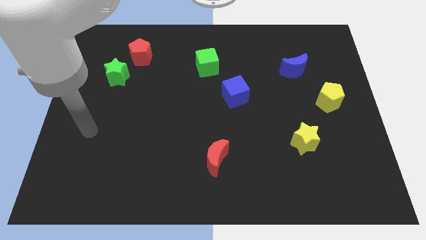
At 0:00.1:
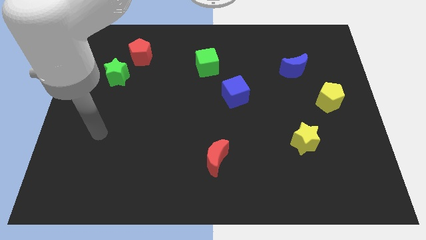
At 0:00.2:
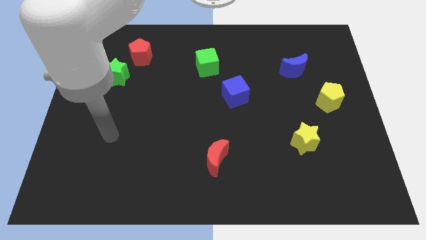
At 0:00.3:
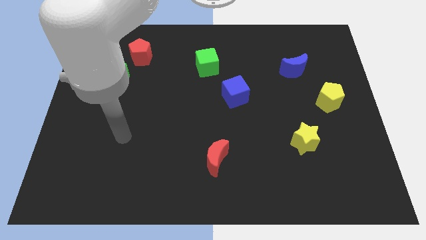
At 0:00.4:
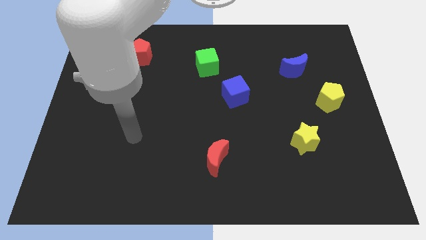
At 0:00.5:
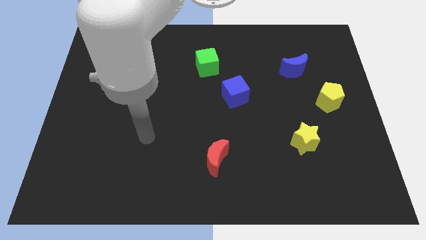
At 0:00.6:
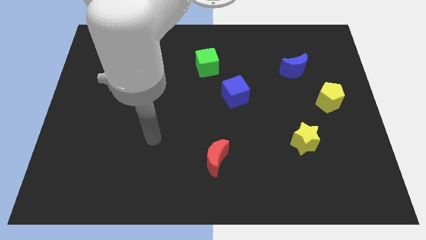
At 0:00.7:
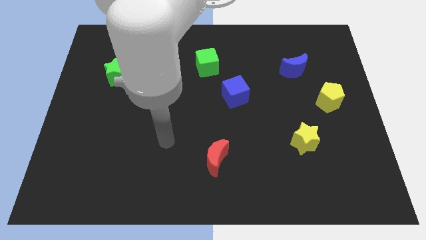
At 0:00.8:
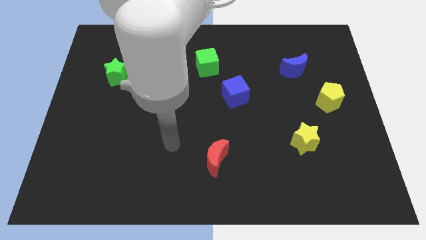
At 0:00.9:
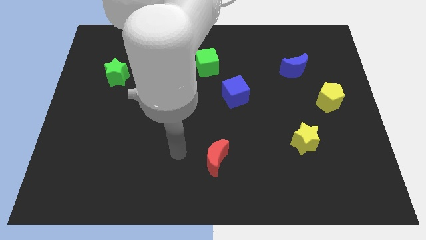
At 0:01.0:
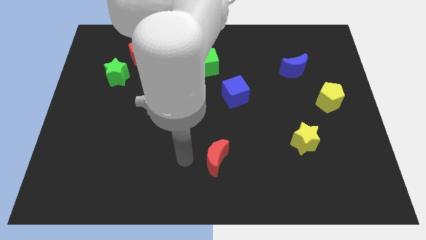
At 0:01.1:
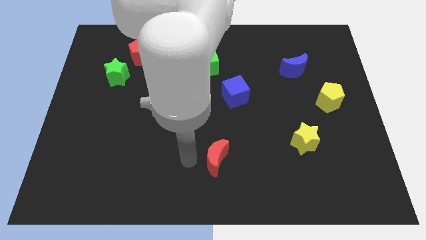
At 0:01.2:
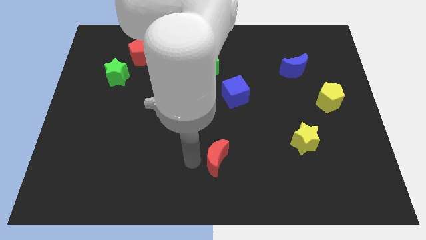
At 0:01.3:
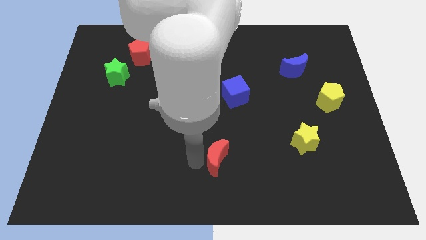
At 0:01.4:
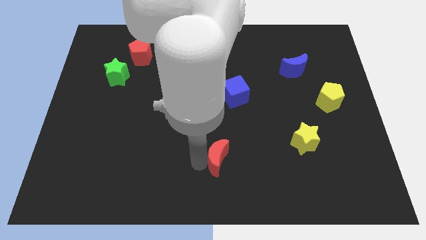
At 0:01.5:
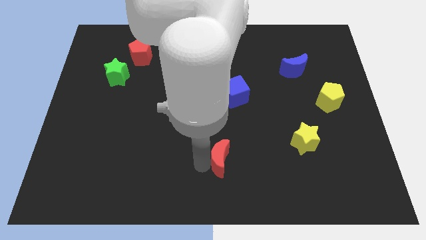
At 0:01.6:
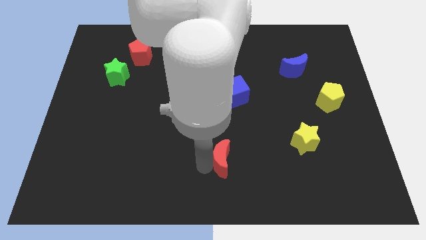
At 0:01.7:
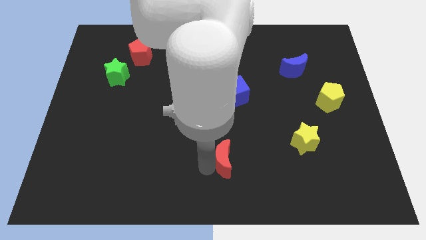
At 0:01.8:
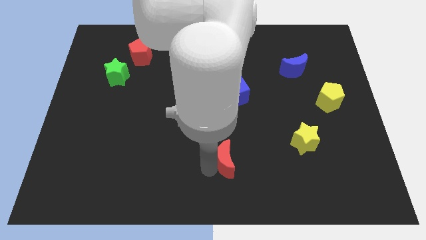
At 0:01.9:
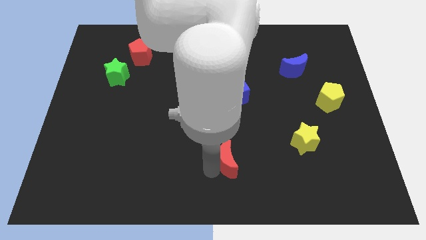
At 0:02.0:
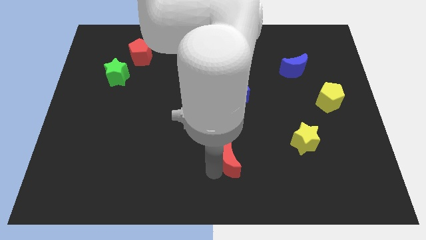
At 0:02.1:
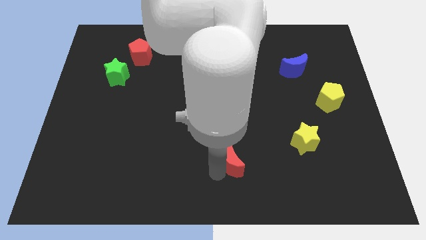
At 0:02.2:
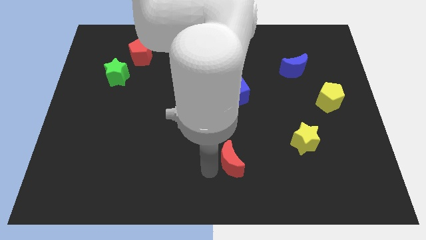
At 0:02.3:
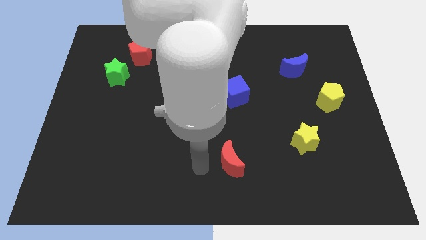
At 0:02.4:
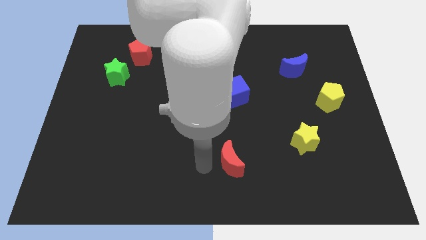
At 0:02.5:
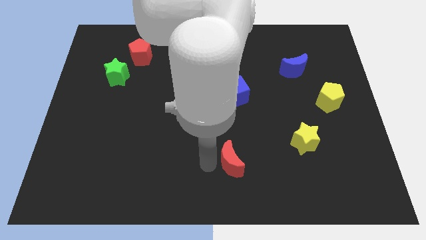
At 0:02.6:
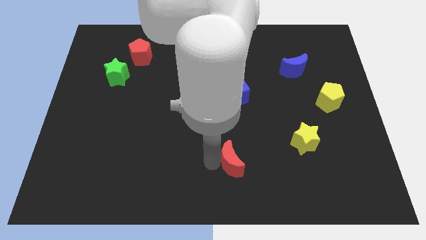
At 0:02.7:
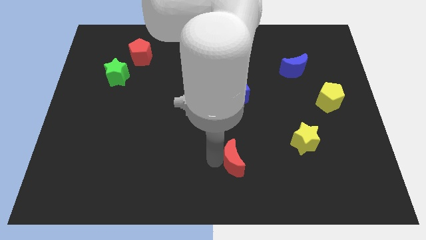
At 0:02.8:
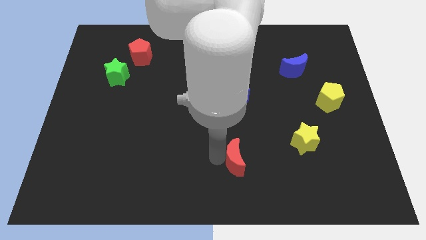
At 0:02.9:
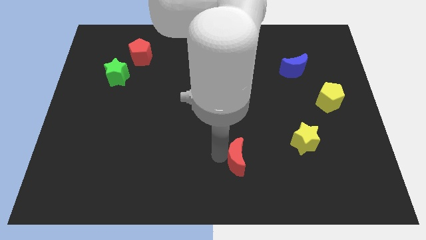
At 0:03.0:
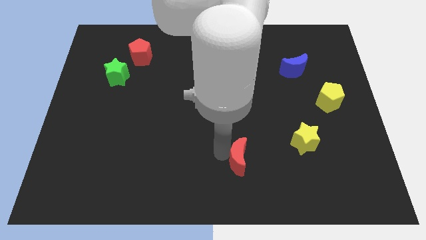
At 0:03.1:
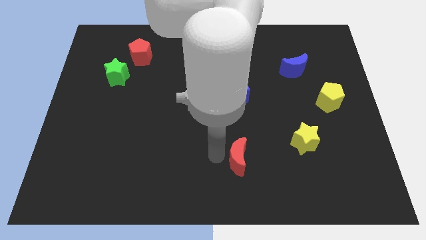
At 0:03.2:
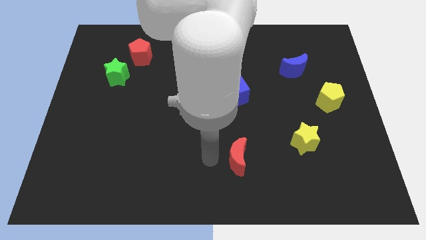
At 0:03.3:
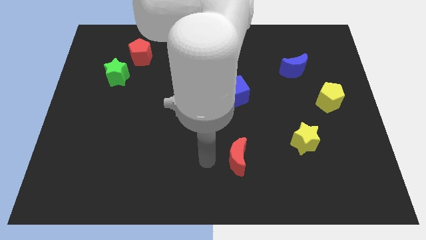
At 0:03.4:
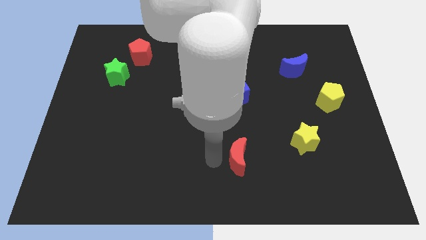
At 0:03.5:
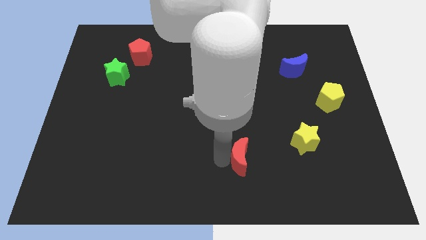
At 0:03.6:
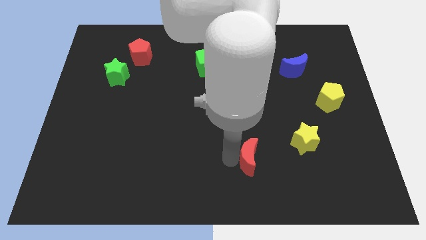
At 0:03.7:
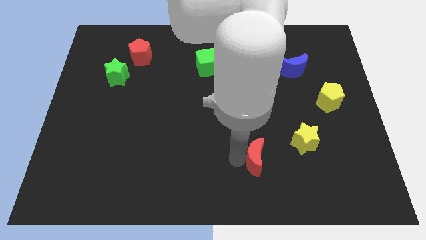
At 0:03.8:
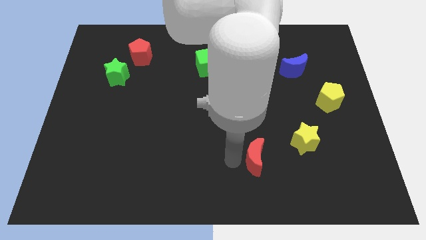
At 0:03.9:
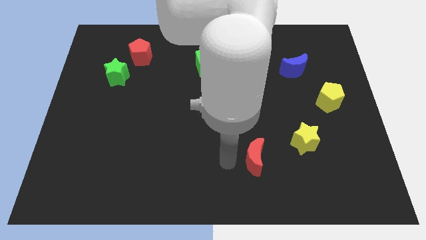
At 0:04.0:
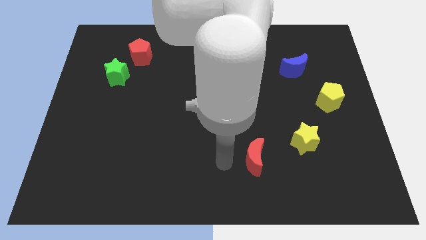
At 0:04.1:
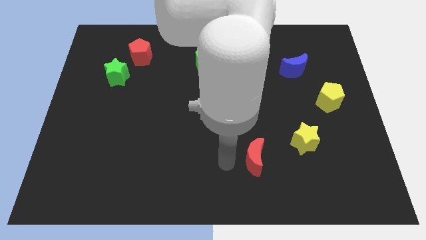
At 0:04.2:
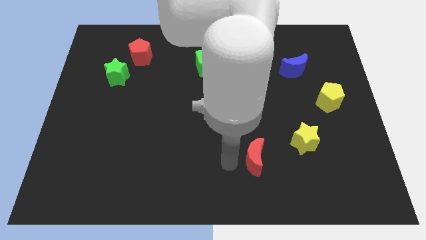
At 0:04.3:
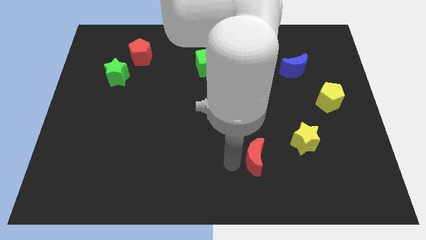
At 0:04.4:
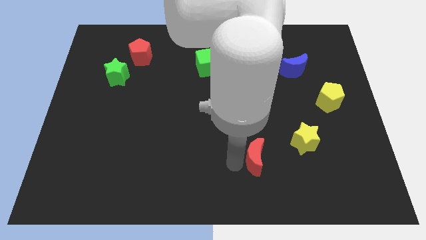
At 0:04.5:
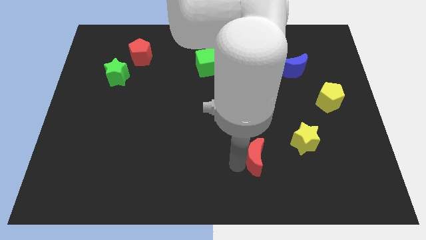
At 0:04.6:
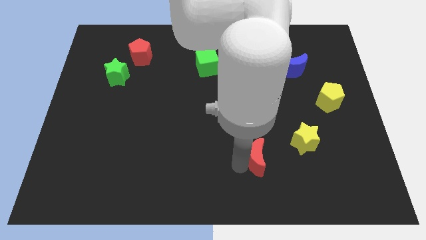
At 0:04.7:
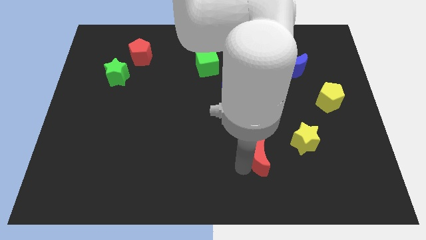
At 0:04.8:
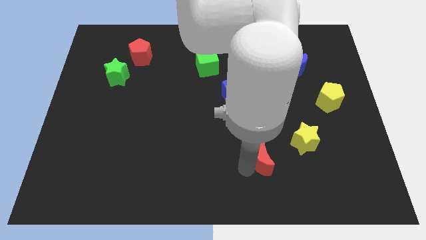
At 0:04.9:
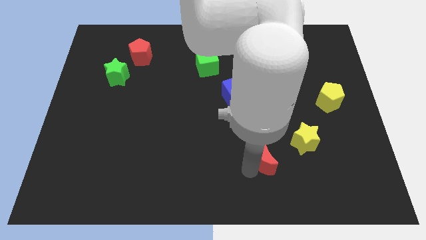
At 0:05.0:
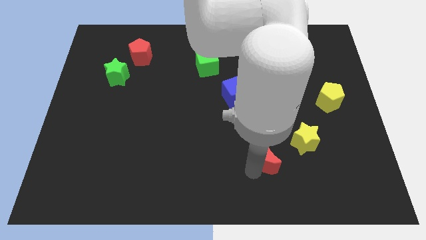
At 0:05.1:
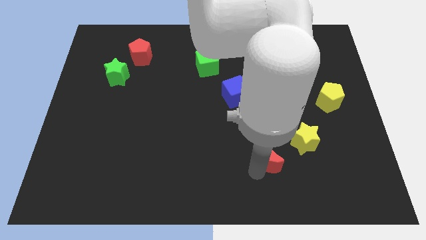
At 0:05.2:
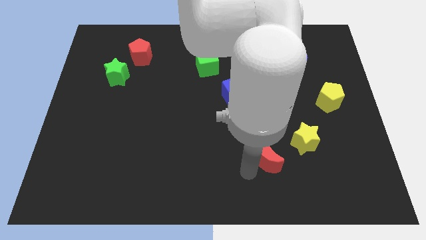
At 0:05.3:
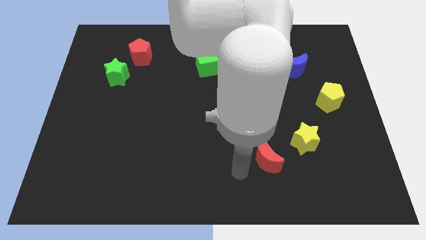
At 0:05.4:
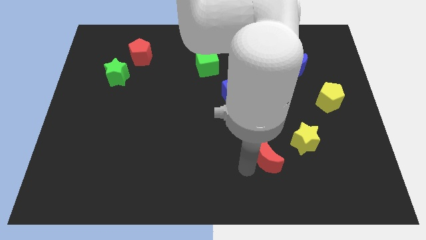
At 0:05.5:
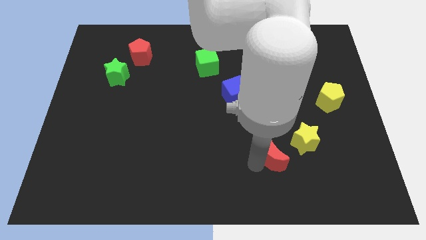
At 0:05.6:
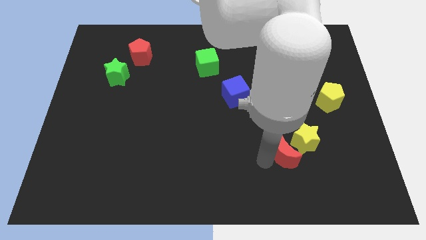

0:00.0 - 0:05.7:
move the red moon towards the yellow star

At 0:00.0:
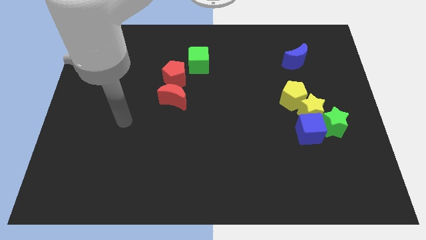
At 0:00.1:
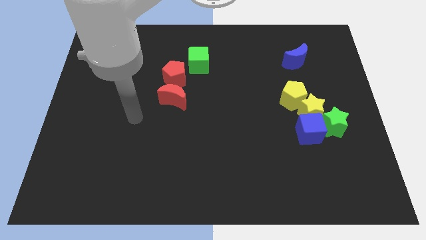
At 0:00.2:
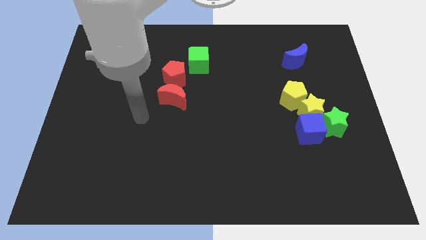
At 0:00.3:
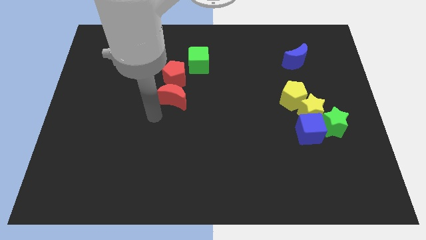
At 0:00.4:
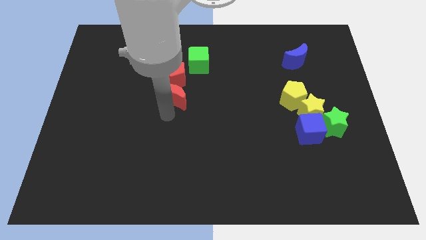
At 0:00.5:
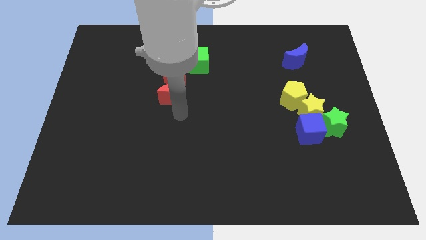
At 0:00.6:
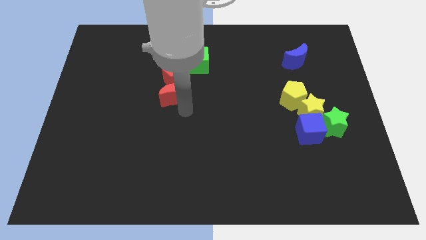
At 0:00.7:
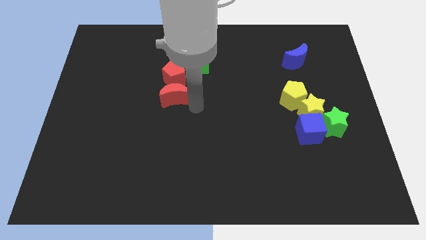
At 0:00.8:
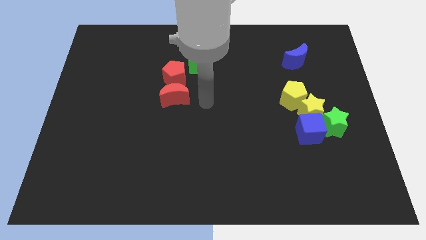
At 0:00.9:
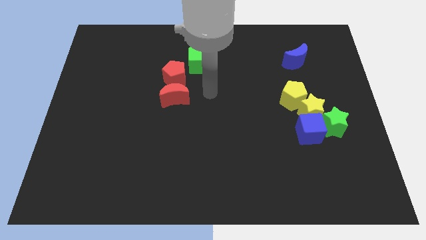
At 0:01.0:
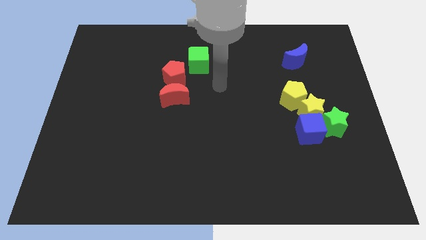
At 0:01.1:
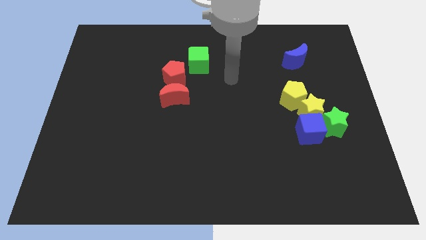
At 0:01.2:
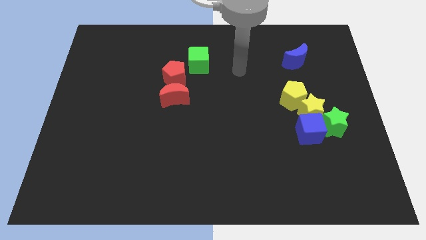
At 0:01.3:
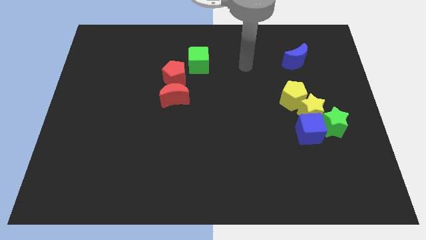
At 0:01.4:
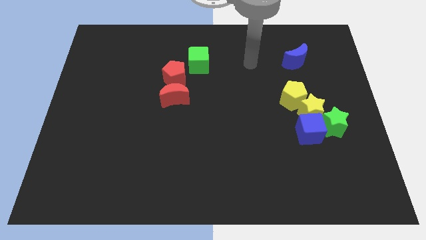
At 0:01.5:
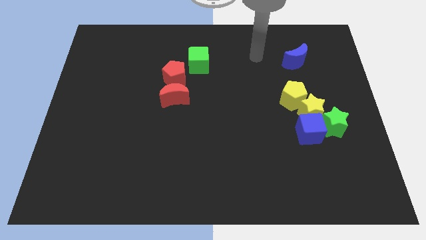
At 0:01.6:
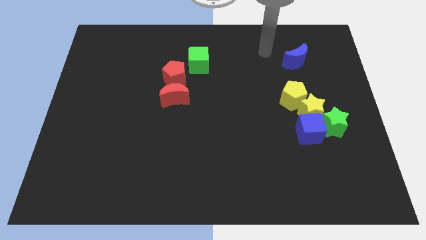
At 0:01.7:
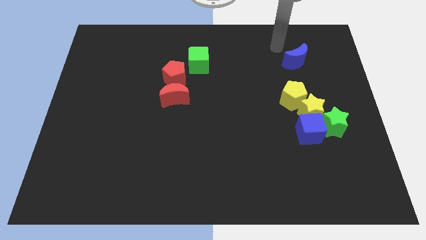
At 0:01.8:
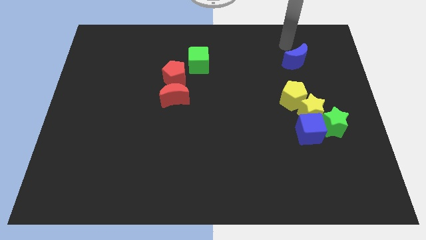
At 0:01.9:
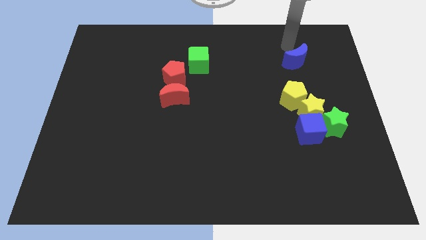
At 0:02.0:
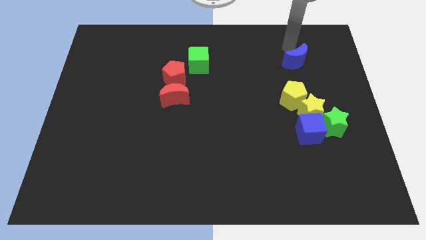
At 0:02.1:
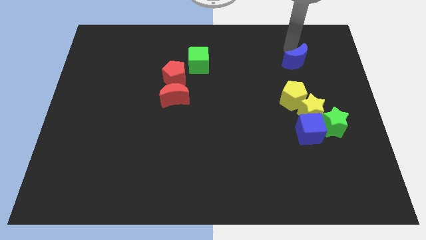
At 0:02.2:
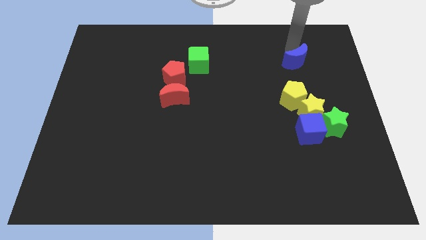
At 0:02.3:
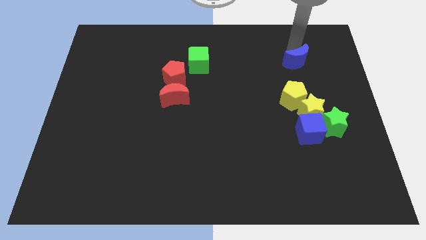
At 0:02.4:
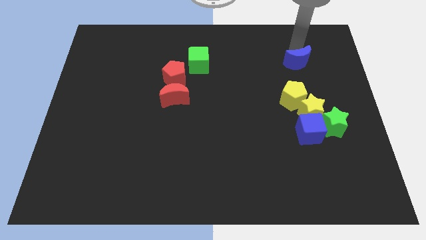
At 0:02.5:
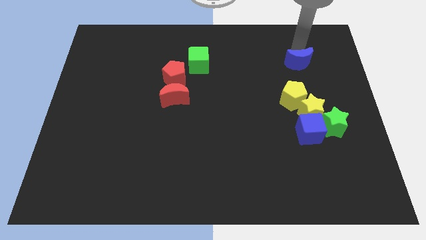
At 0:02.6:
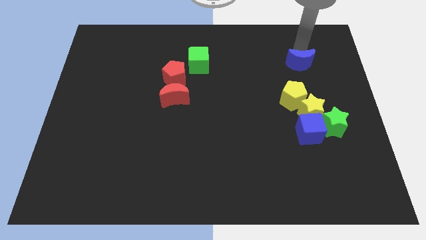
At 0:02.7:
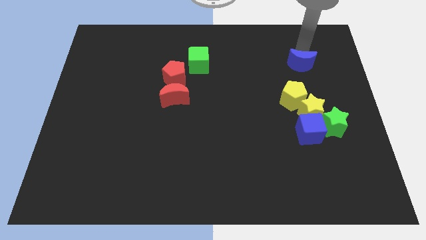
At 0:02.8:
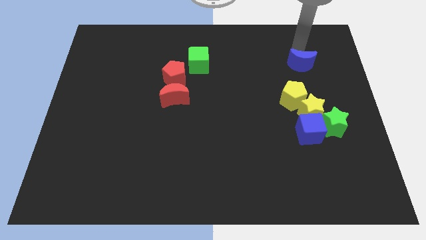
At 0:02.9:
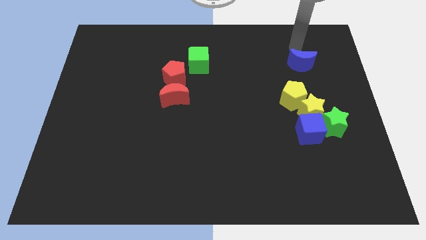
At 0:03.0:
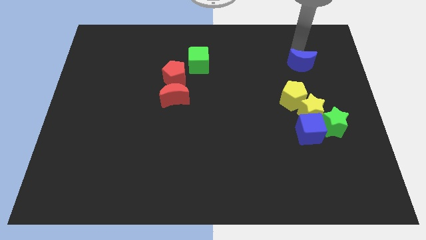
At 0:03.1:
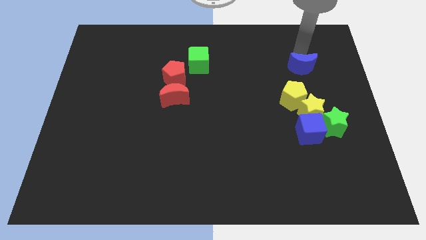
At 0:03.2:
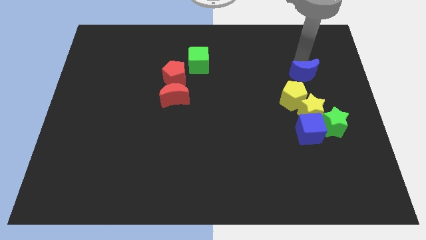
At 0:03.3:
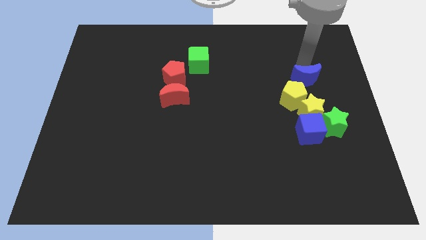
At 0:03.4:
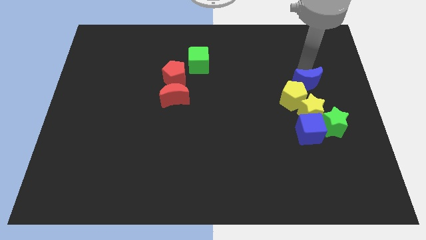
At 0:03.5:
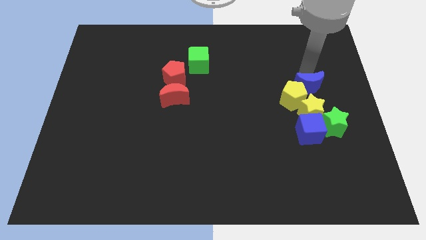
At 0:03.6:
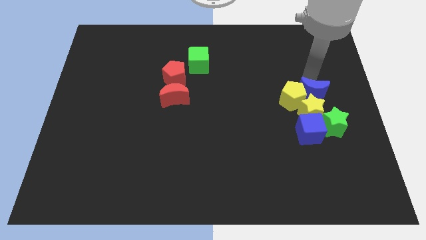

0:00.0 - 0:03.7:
move the blue moon close to the yellow star
